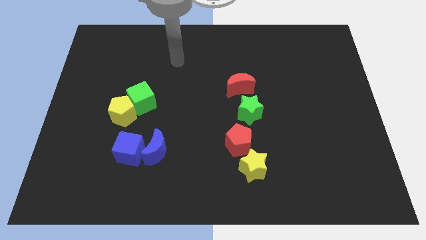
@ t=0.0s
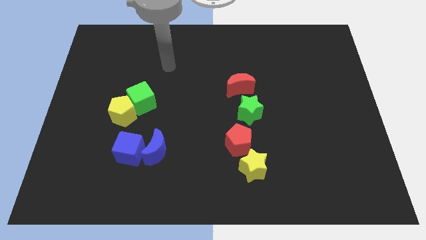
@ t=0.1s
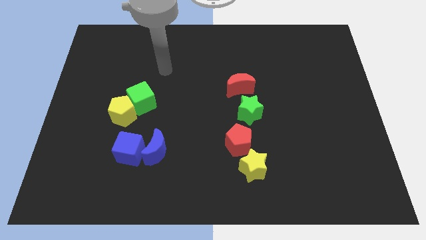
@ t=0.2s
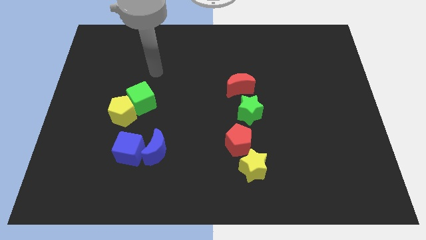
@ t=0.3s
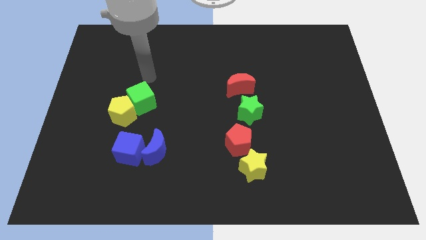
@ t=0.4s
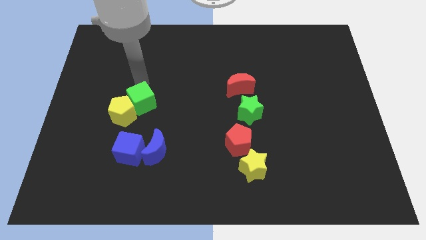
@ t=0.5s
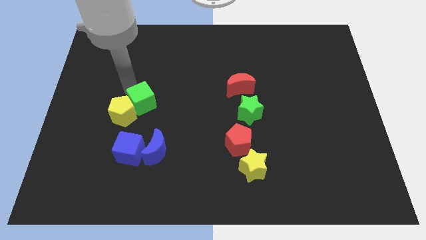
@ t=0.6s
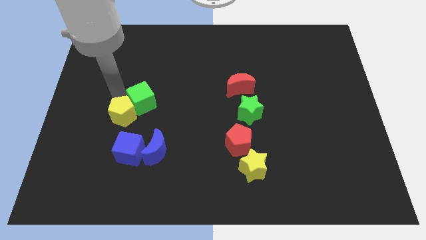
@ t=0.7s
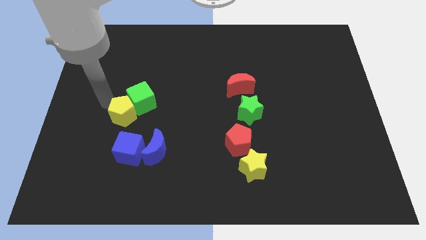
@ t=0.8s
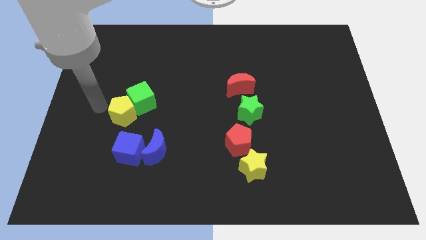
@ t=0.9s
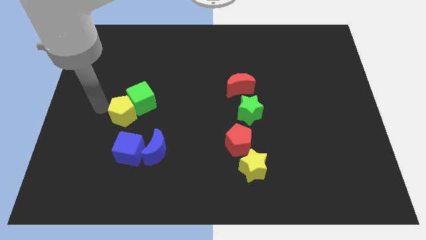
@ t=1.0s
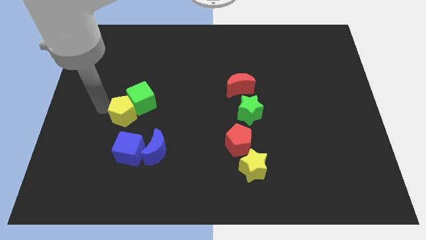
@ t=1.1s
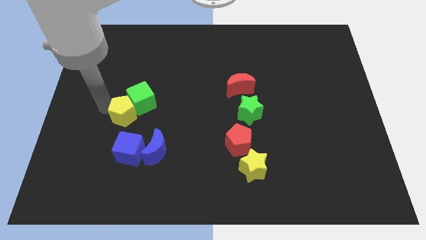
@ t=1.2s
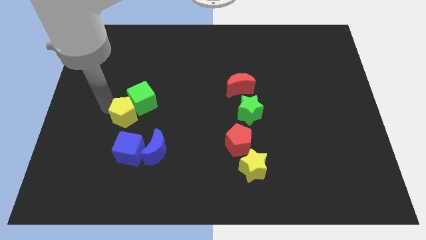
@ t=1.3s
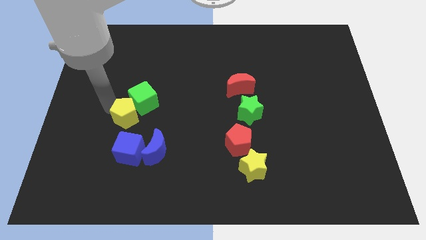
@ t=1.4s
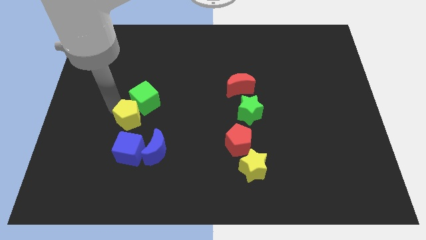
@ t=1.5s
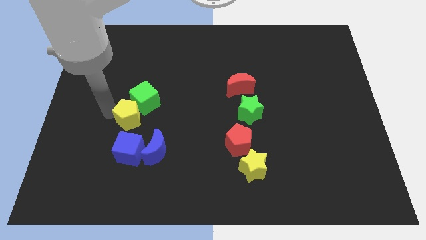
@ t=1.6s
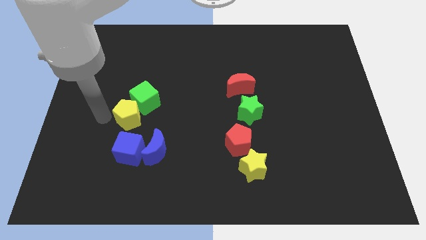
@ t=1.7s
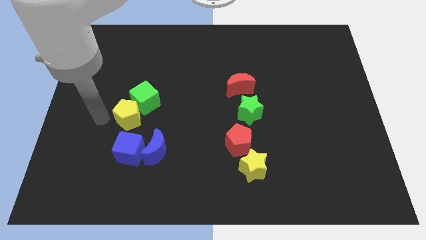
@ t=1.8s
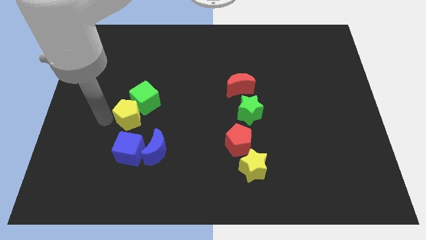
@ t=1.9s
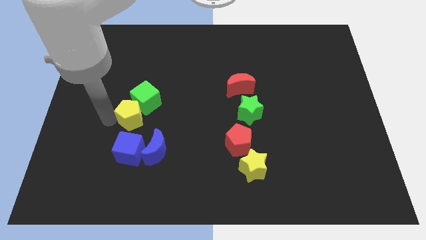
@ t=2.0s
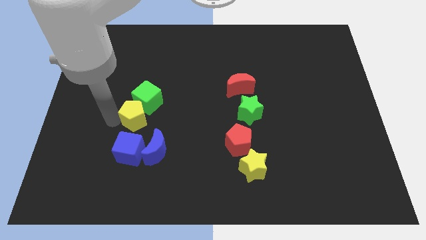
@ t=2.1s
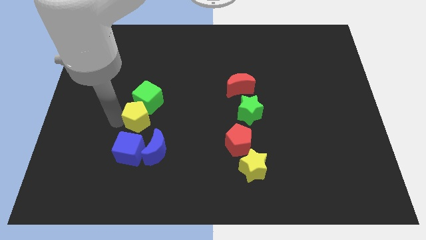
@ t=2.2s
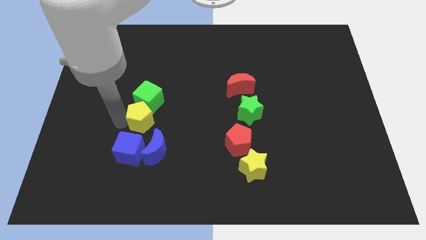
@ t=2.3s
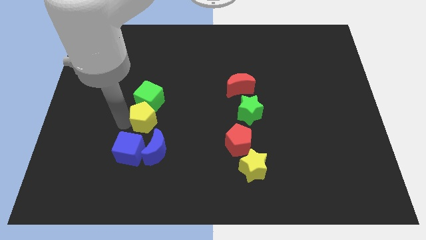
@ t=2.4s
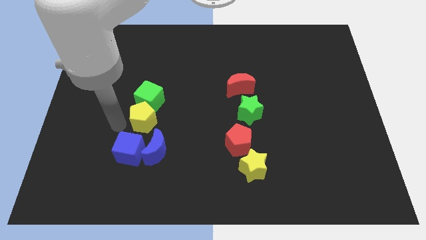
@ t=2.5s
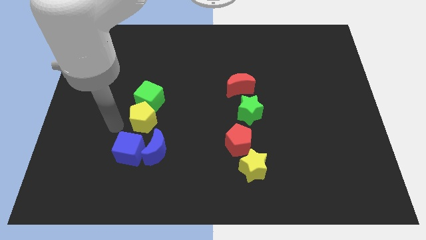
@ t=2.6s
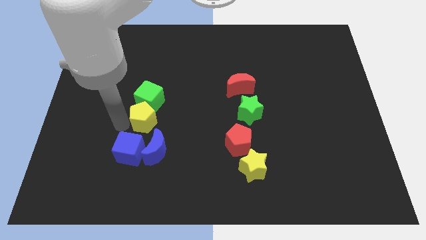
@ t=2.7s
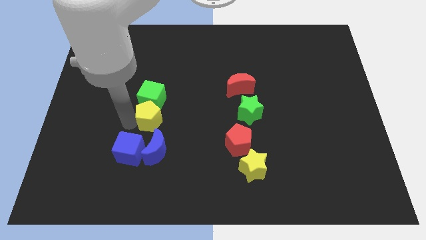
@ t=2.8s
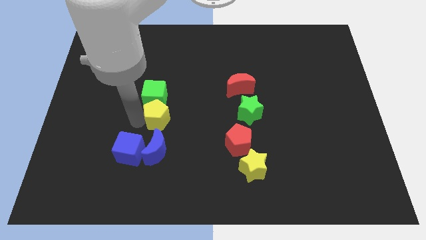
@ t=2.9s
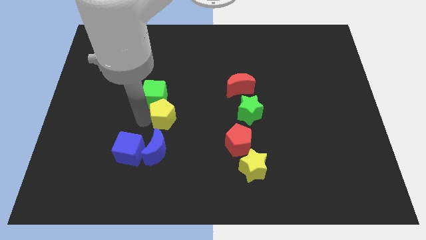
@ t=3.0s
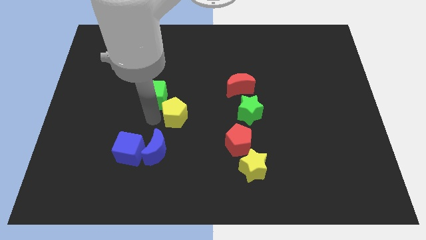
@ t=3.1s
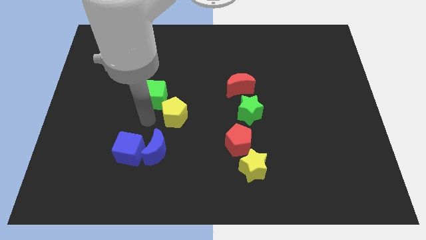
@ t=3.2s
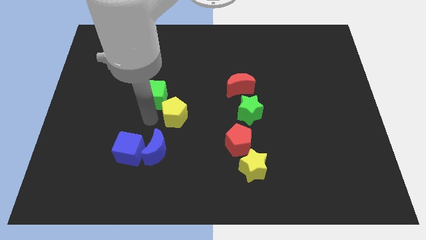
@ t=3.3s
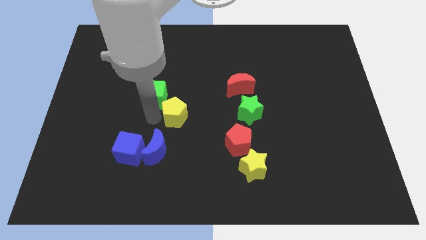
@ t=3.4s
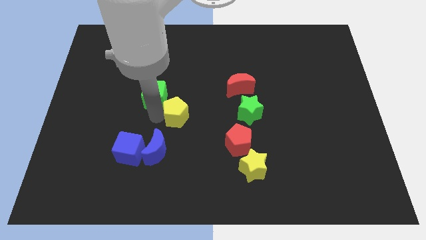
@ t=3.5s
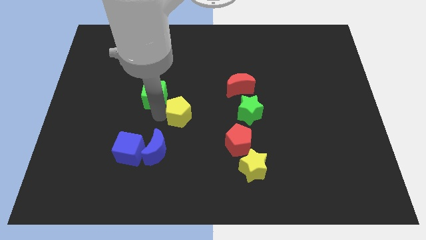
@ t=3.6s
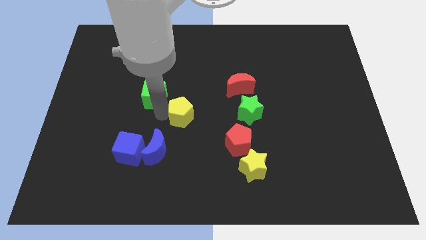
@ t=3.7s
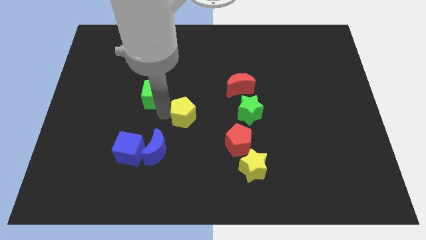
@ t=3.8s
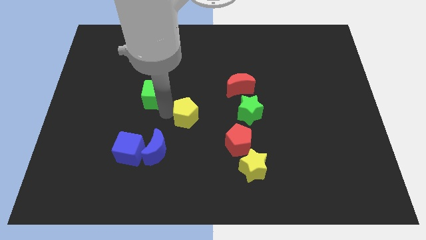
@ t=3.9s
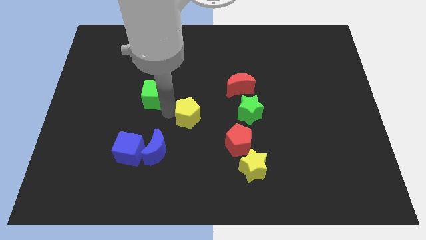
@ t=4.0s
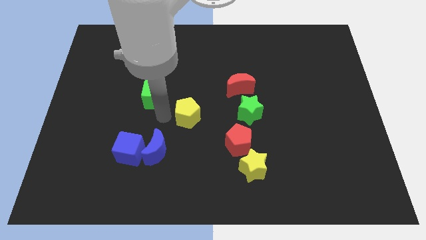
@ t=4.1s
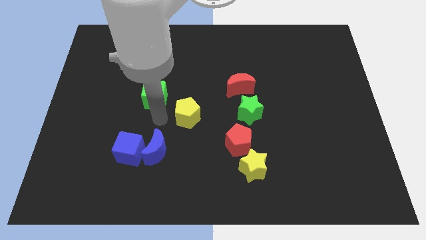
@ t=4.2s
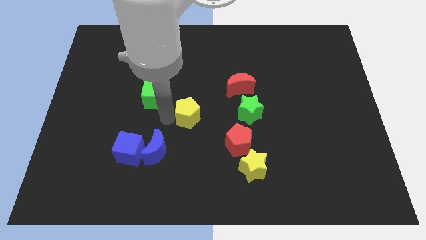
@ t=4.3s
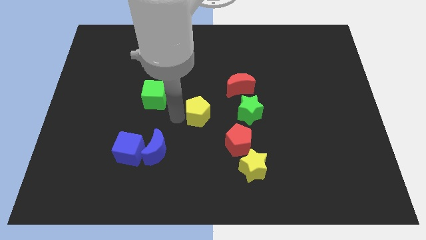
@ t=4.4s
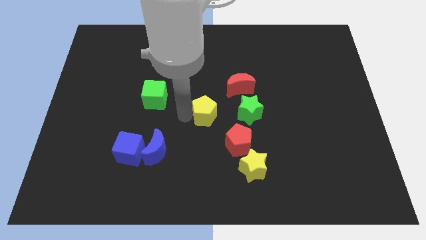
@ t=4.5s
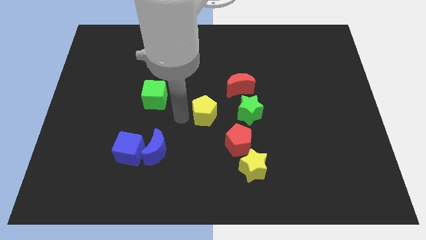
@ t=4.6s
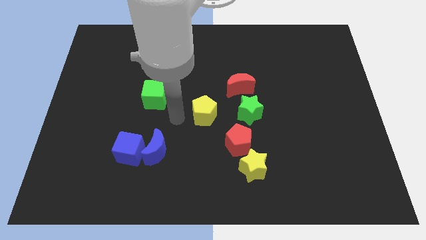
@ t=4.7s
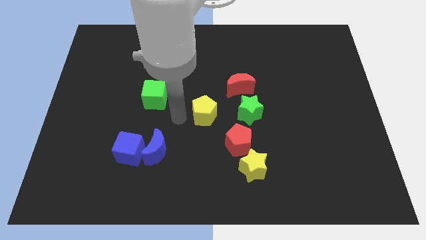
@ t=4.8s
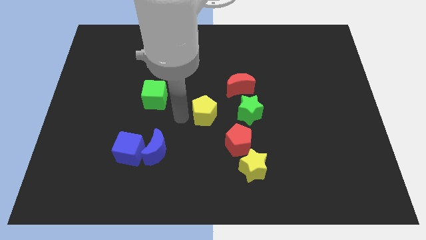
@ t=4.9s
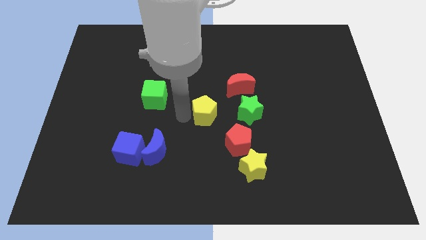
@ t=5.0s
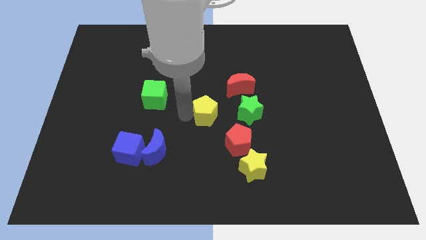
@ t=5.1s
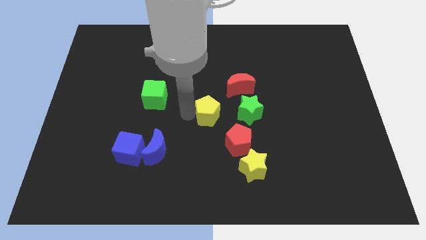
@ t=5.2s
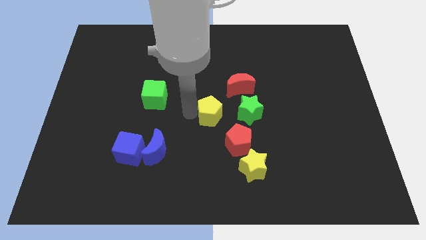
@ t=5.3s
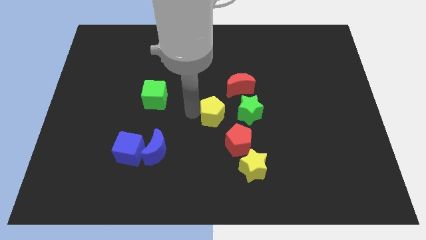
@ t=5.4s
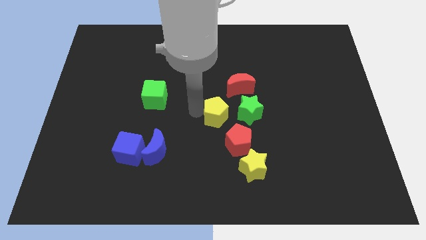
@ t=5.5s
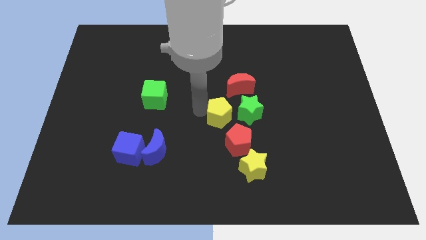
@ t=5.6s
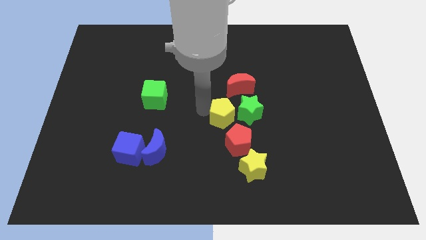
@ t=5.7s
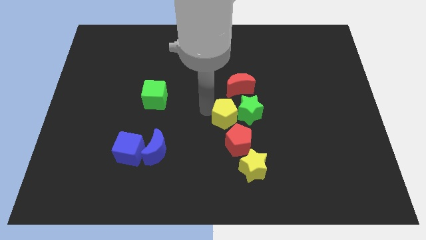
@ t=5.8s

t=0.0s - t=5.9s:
move the yellow pentagon close to the green star

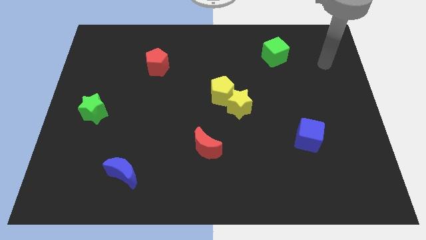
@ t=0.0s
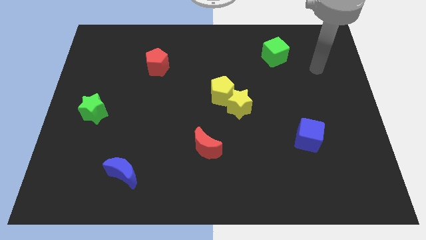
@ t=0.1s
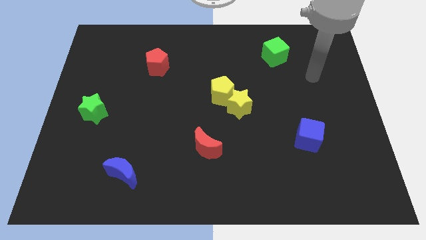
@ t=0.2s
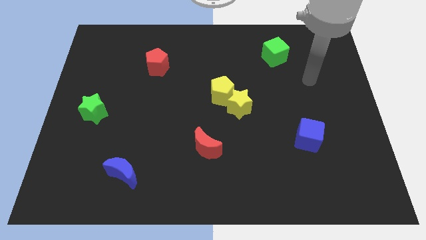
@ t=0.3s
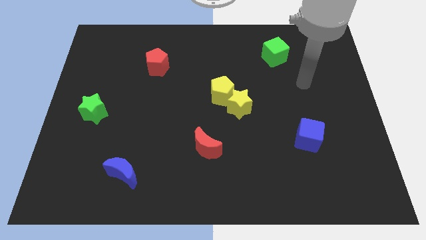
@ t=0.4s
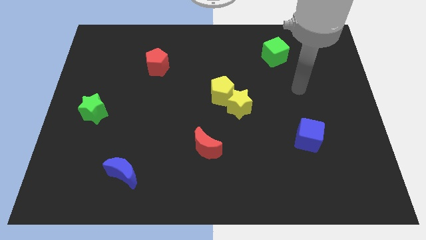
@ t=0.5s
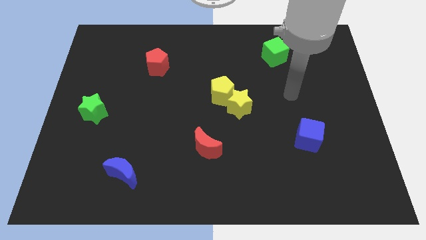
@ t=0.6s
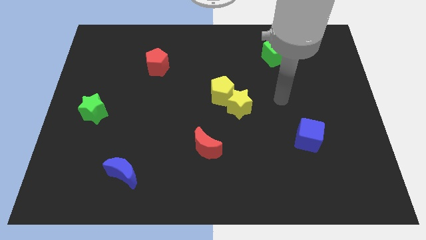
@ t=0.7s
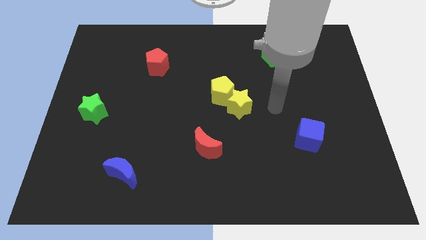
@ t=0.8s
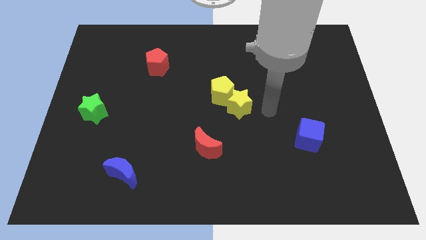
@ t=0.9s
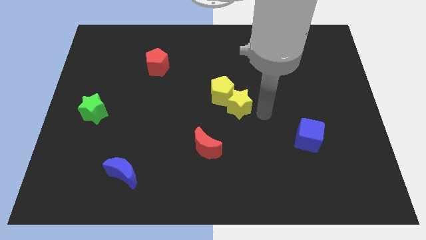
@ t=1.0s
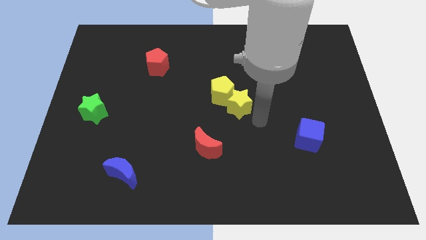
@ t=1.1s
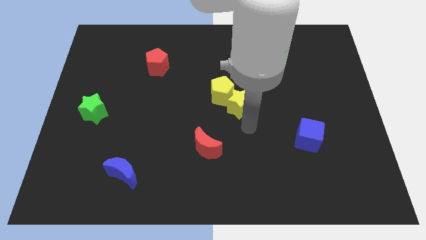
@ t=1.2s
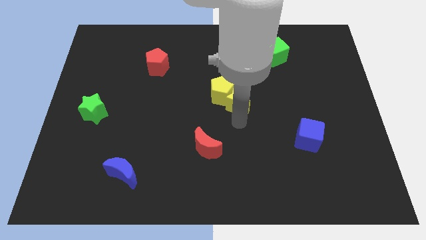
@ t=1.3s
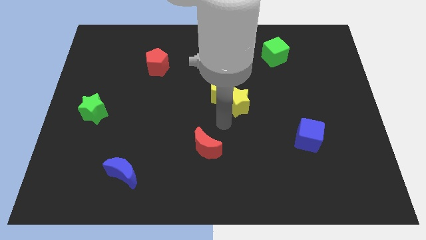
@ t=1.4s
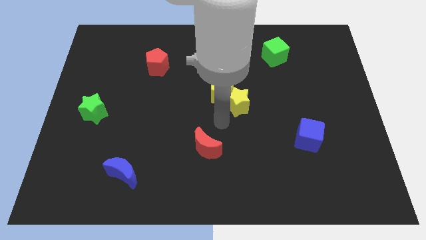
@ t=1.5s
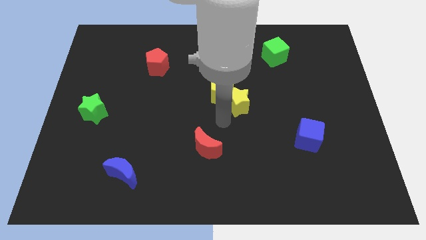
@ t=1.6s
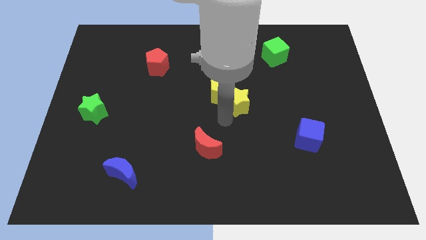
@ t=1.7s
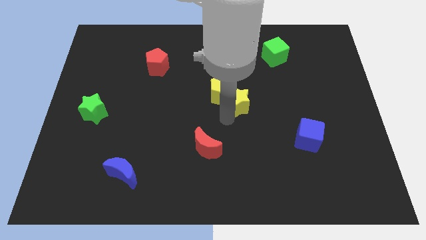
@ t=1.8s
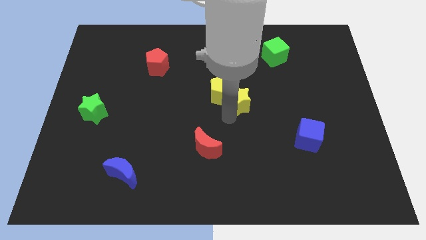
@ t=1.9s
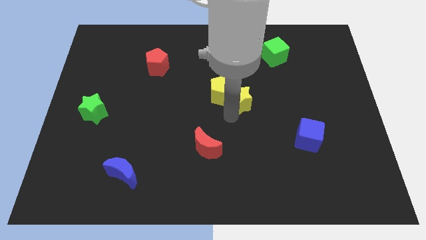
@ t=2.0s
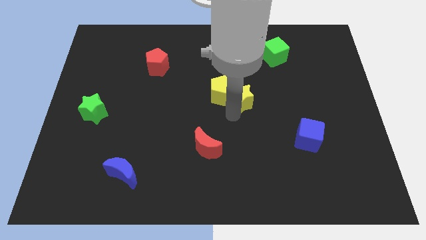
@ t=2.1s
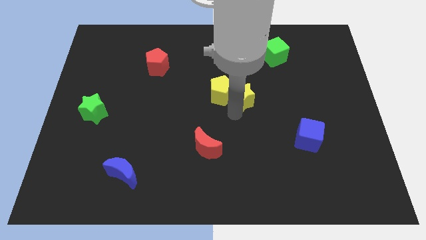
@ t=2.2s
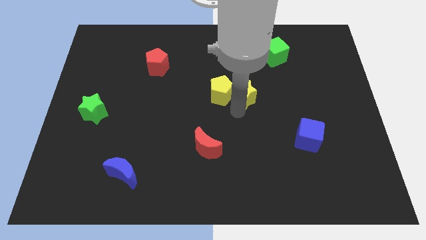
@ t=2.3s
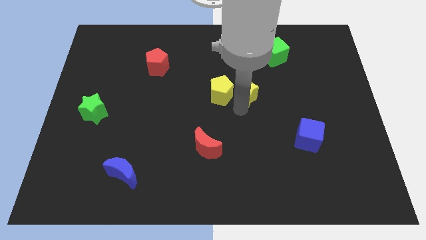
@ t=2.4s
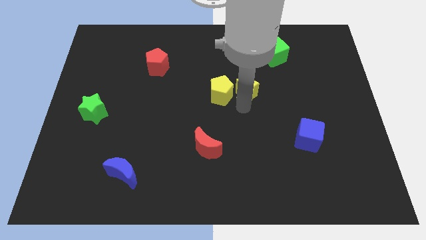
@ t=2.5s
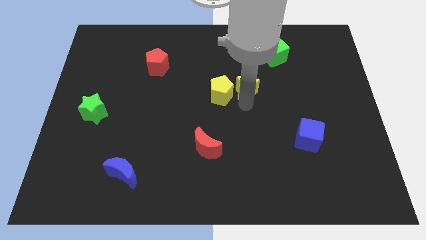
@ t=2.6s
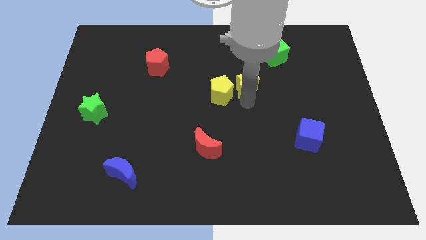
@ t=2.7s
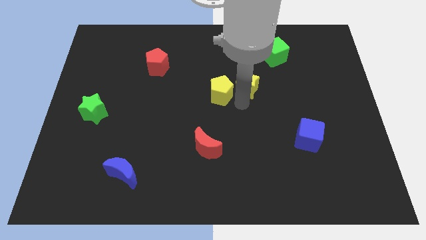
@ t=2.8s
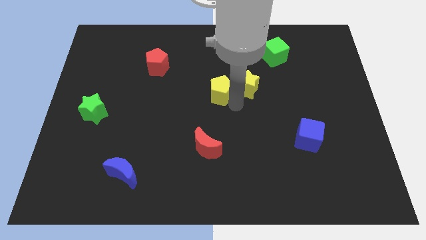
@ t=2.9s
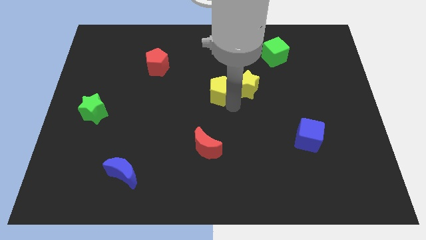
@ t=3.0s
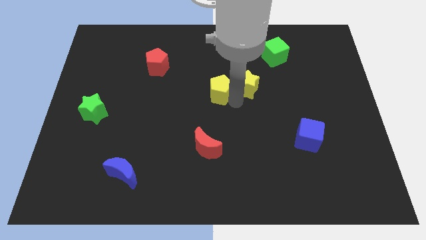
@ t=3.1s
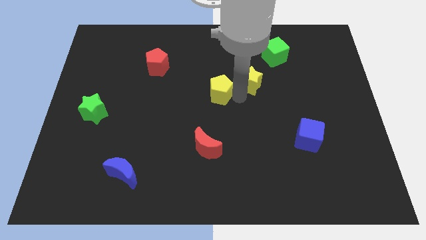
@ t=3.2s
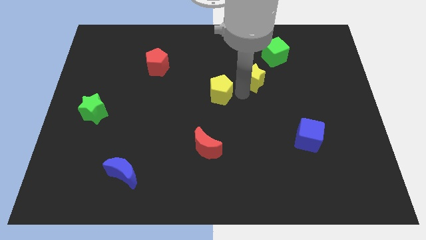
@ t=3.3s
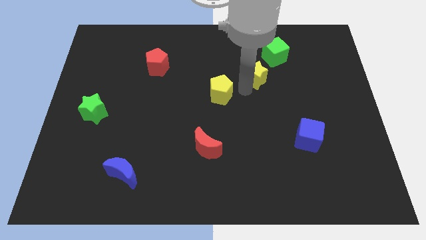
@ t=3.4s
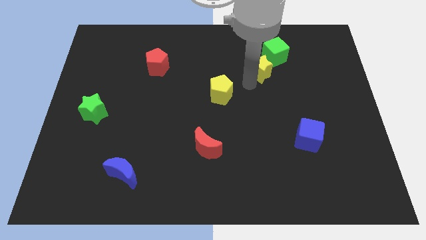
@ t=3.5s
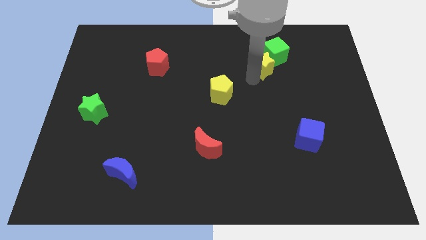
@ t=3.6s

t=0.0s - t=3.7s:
move the yellow star towards the green cube
